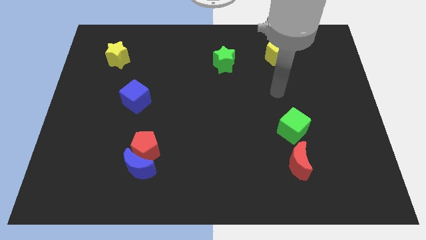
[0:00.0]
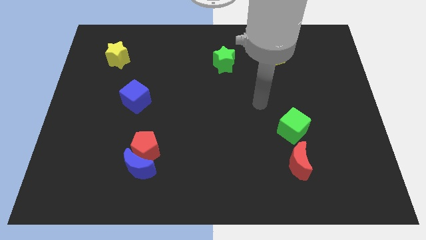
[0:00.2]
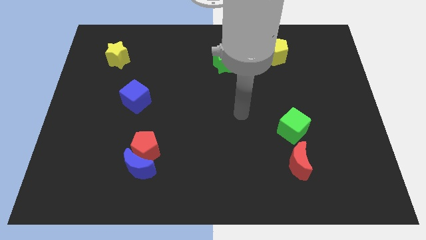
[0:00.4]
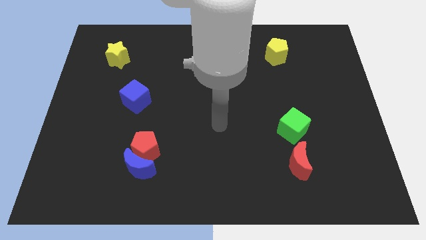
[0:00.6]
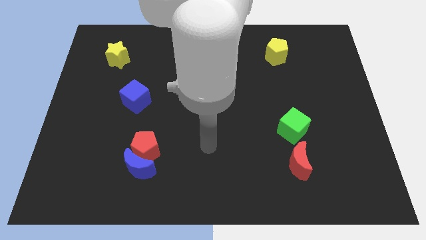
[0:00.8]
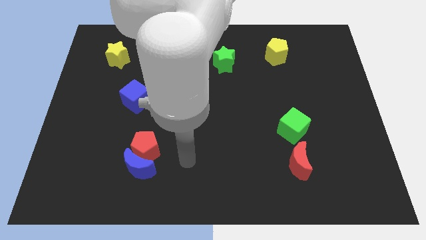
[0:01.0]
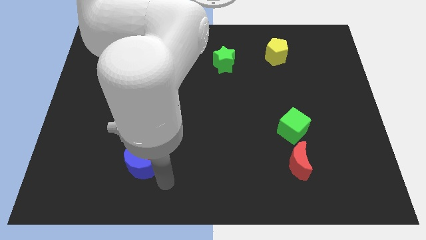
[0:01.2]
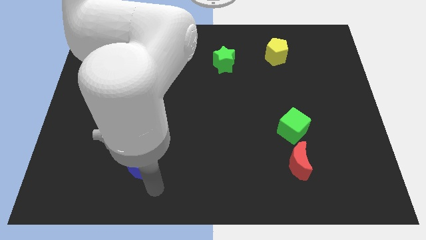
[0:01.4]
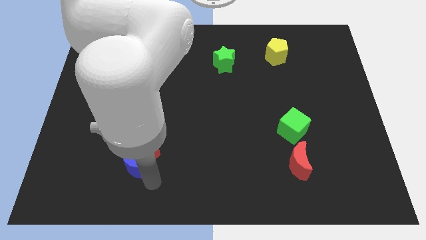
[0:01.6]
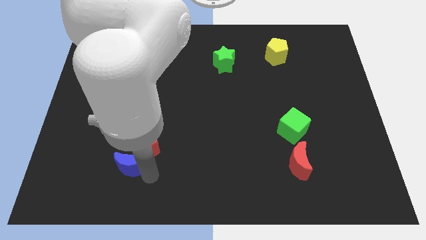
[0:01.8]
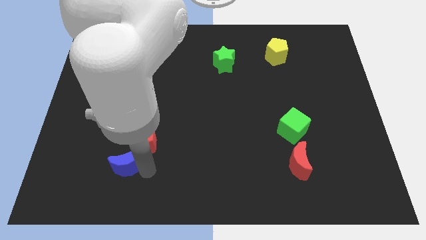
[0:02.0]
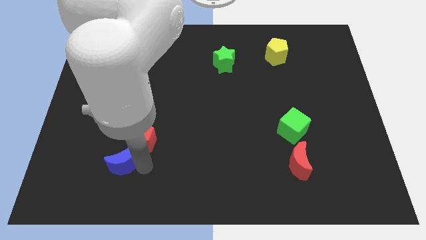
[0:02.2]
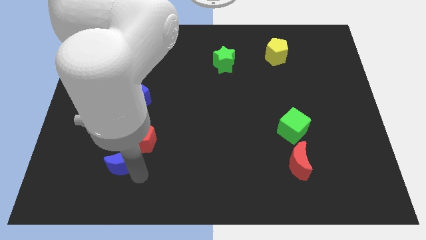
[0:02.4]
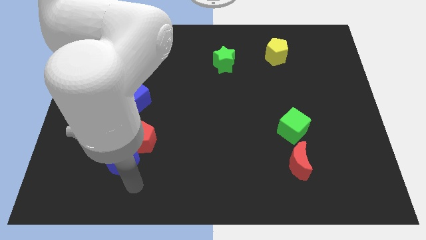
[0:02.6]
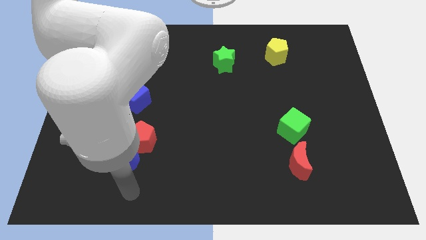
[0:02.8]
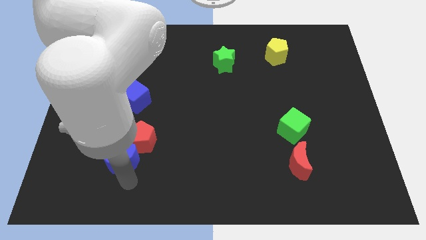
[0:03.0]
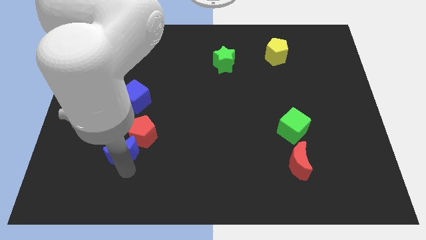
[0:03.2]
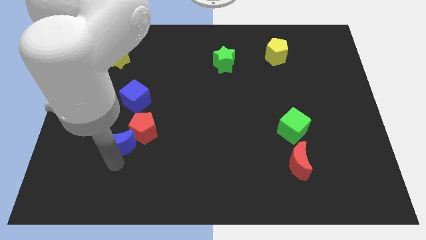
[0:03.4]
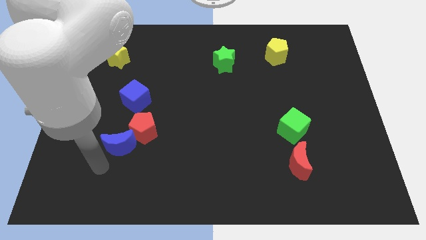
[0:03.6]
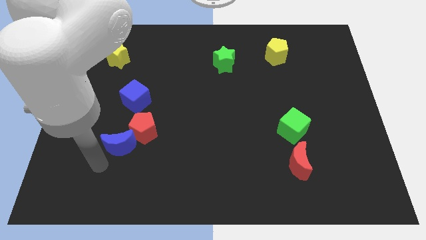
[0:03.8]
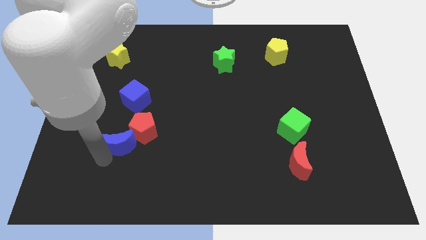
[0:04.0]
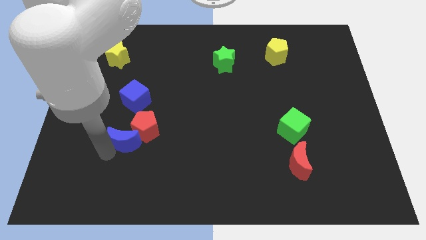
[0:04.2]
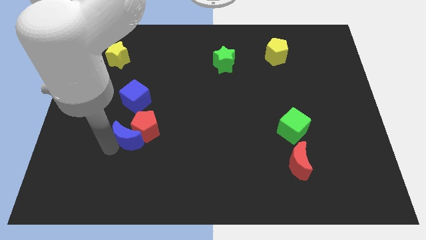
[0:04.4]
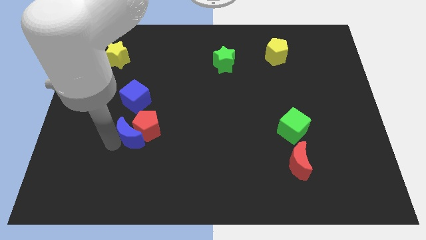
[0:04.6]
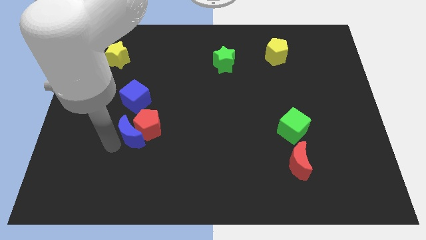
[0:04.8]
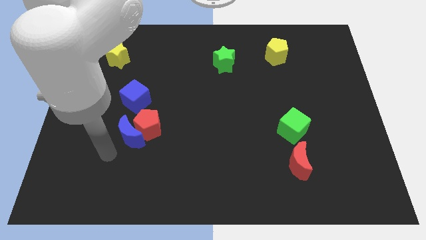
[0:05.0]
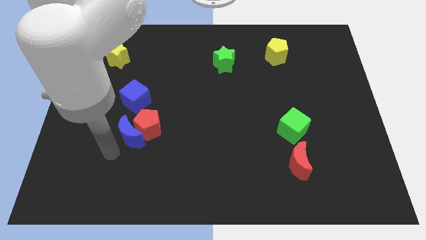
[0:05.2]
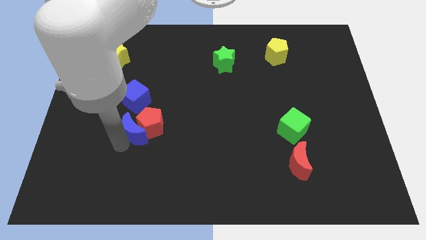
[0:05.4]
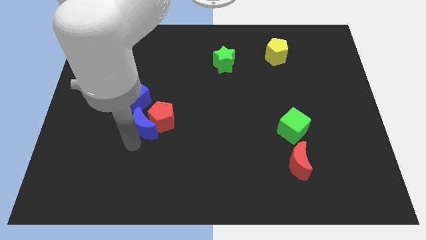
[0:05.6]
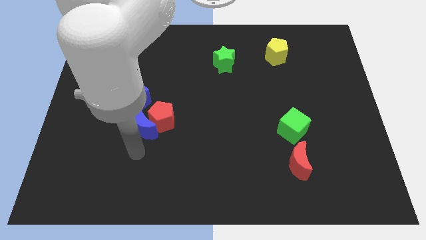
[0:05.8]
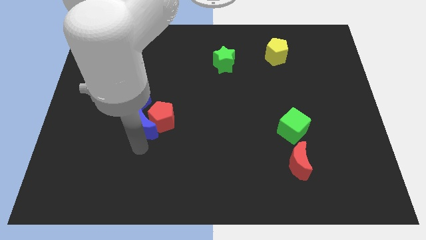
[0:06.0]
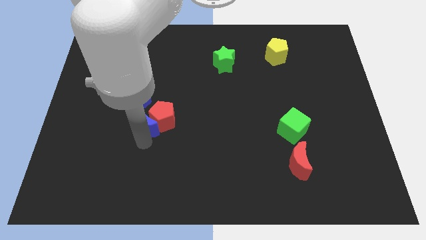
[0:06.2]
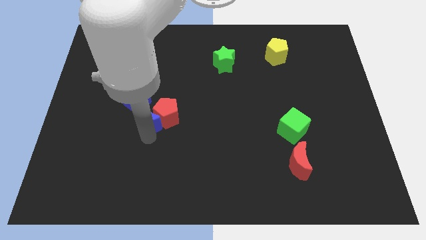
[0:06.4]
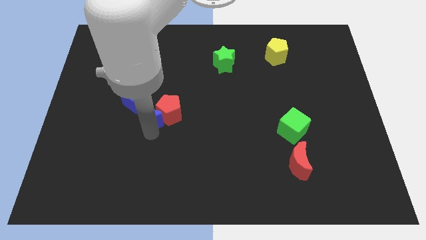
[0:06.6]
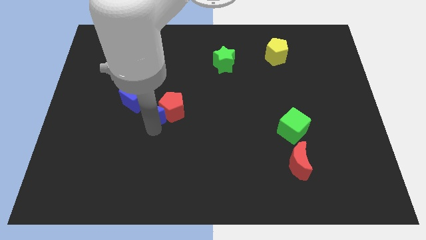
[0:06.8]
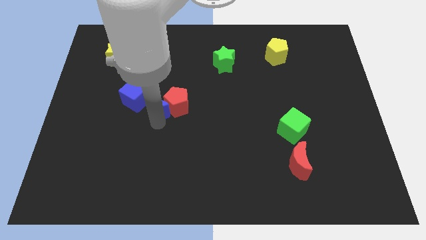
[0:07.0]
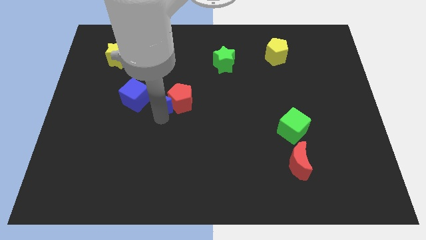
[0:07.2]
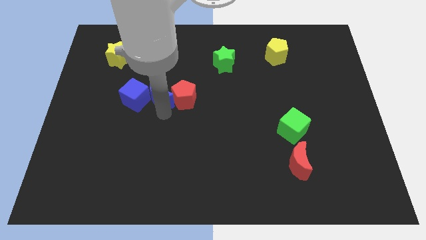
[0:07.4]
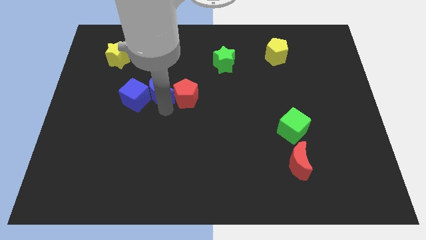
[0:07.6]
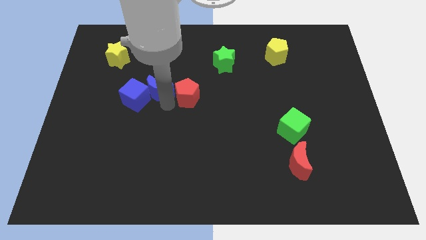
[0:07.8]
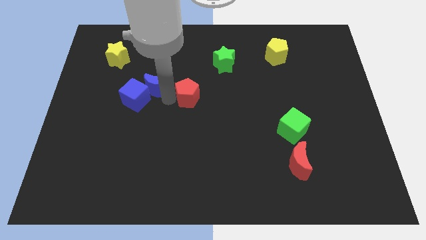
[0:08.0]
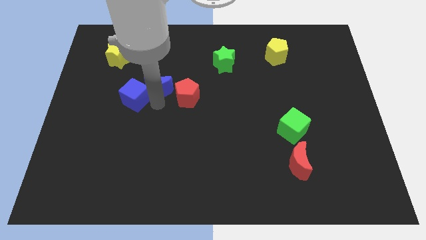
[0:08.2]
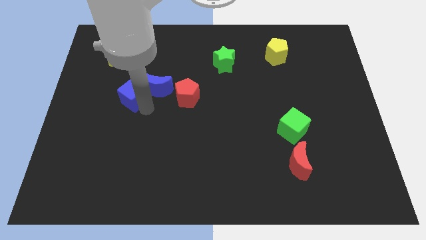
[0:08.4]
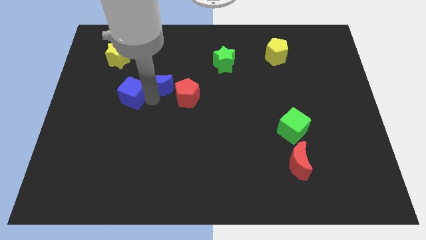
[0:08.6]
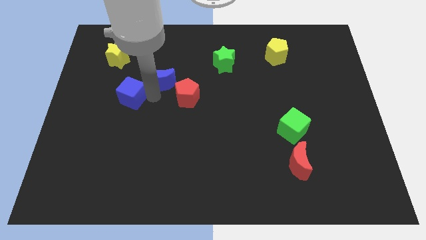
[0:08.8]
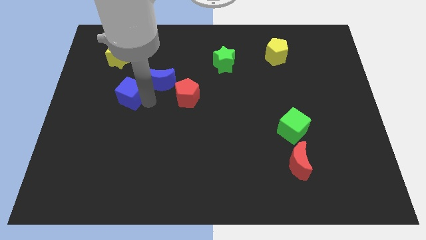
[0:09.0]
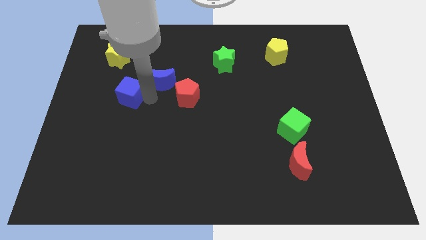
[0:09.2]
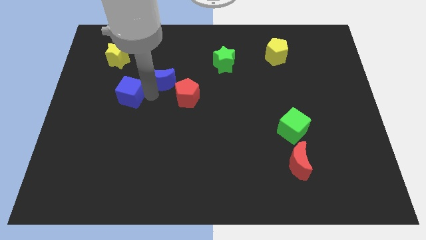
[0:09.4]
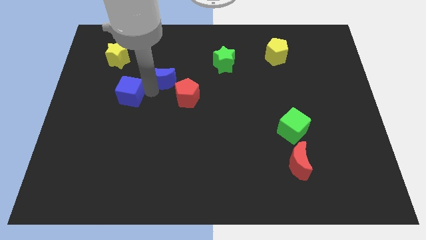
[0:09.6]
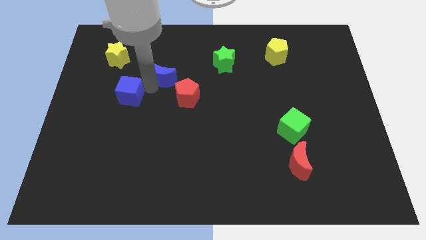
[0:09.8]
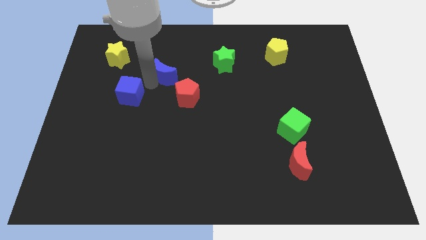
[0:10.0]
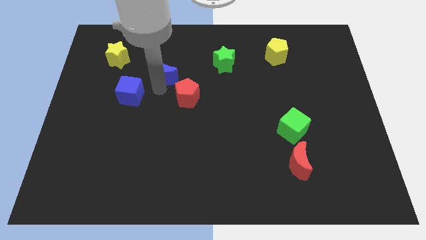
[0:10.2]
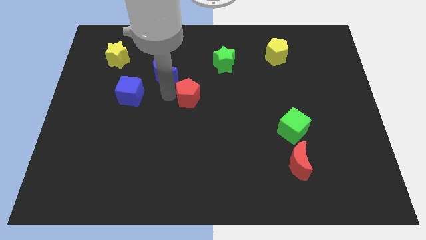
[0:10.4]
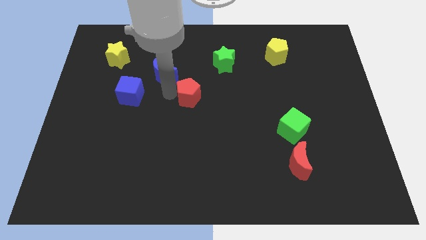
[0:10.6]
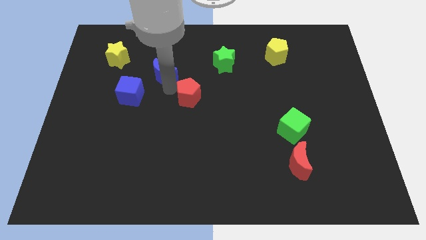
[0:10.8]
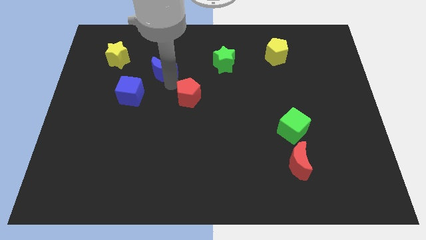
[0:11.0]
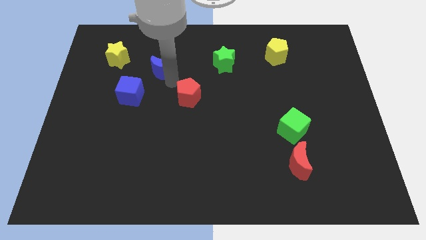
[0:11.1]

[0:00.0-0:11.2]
move the blue moon to the right side of the yellow star
